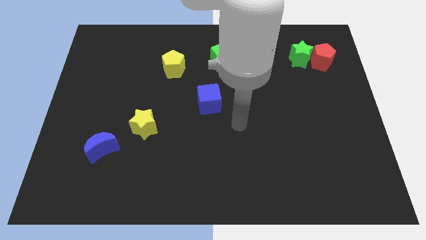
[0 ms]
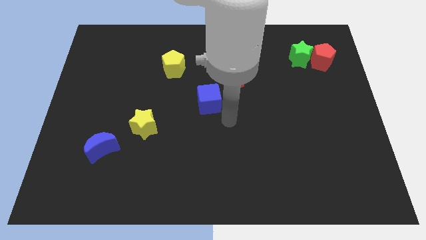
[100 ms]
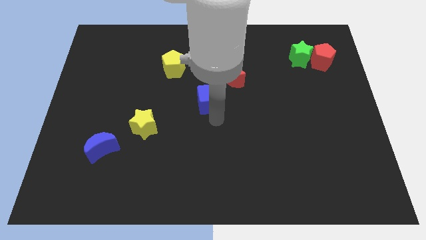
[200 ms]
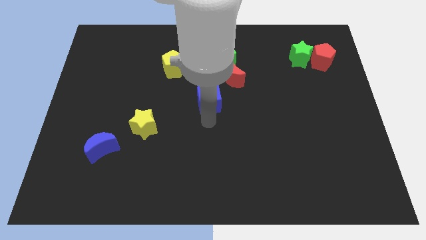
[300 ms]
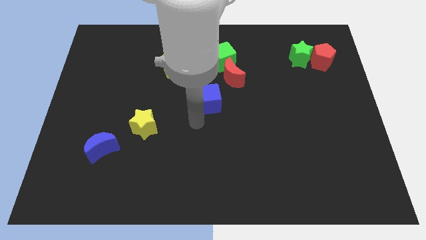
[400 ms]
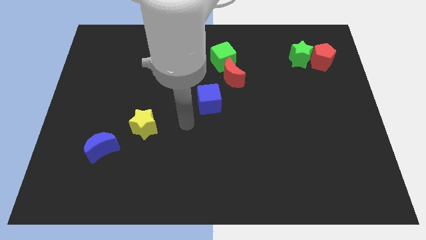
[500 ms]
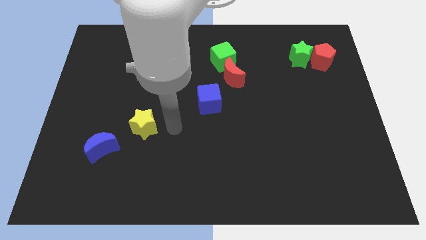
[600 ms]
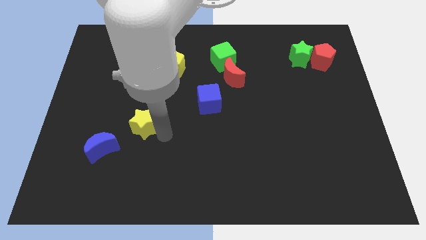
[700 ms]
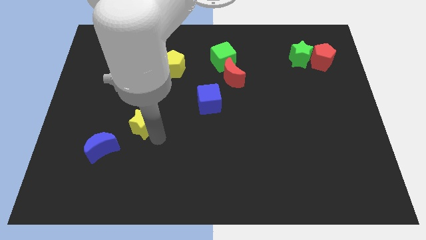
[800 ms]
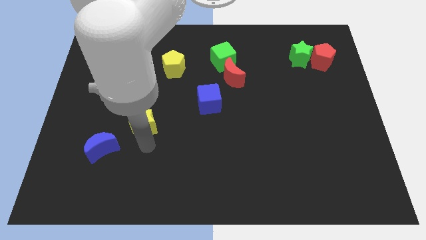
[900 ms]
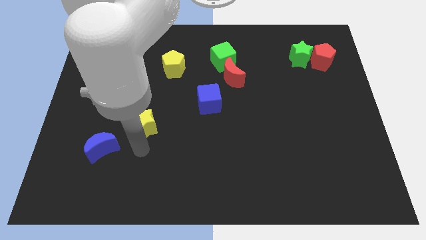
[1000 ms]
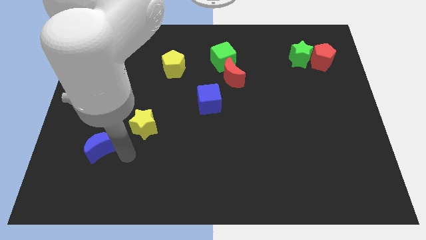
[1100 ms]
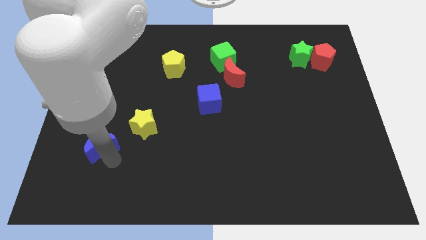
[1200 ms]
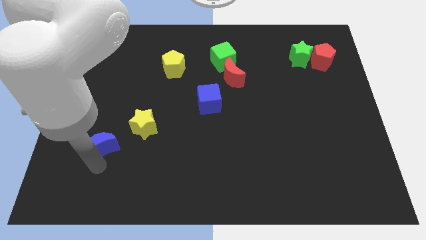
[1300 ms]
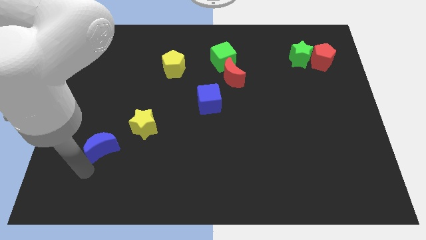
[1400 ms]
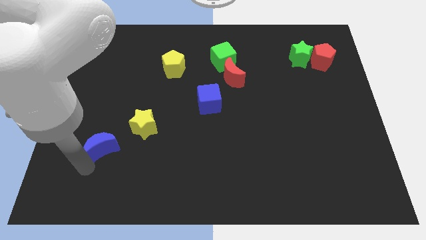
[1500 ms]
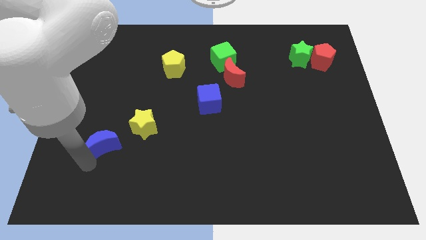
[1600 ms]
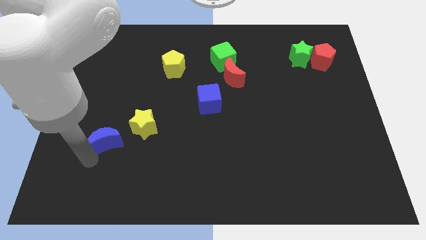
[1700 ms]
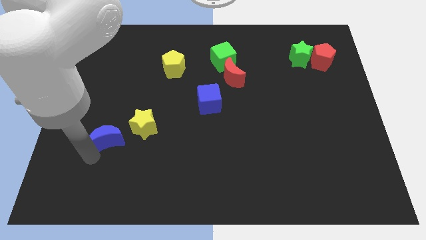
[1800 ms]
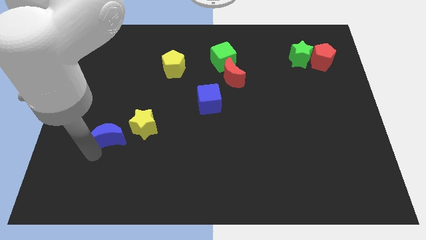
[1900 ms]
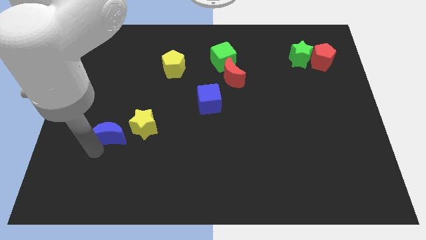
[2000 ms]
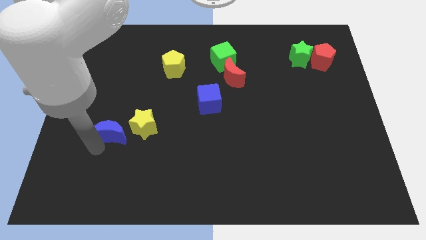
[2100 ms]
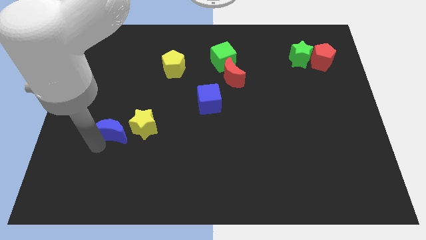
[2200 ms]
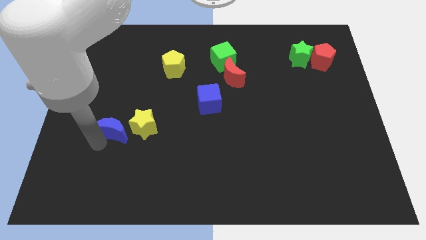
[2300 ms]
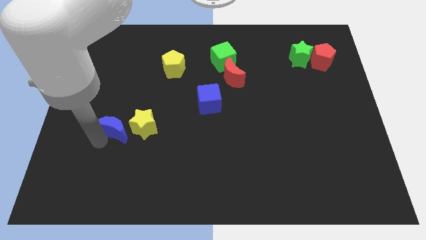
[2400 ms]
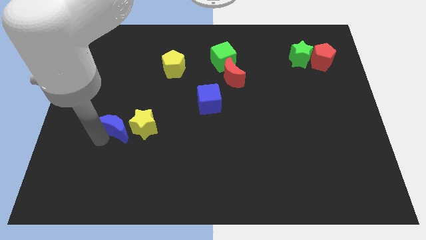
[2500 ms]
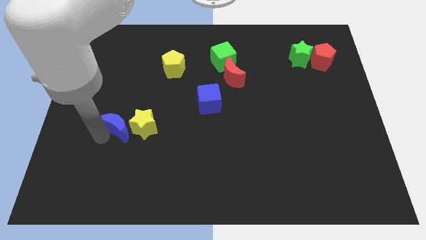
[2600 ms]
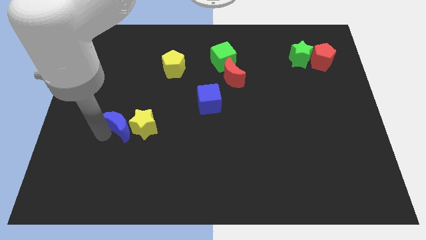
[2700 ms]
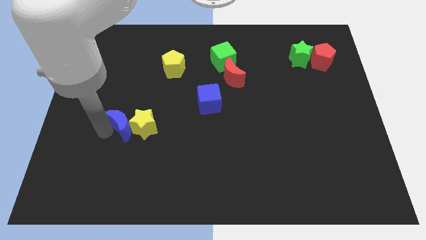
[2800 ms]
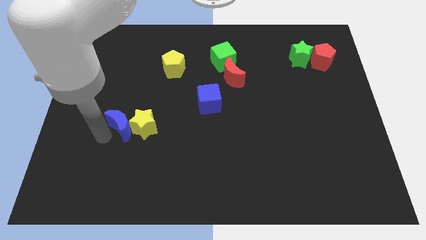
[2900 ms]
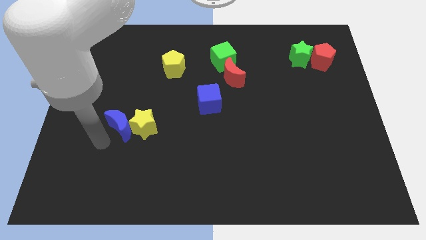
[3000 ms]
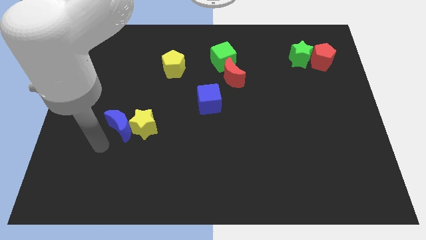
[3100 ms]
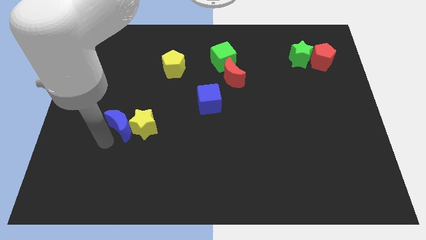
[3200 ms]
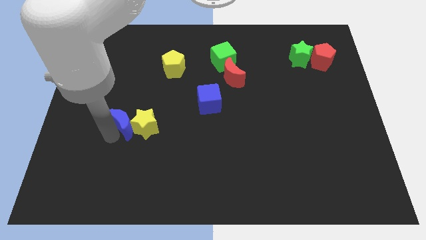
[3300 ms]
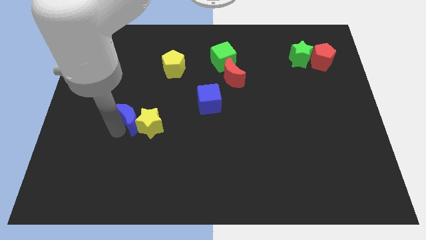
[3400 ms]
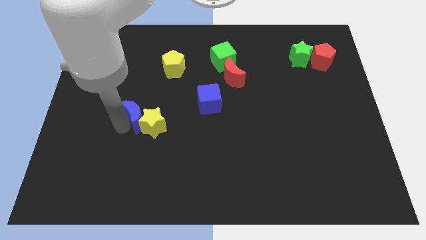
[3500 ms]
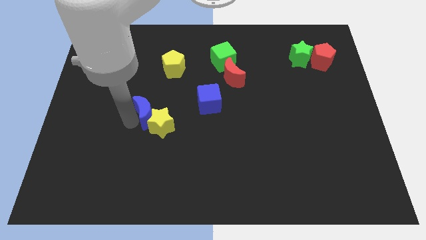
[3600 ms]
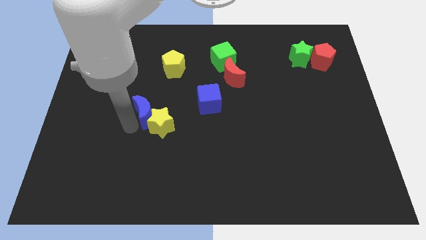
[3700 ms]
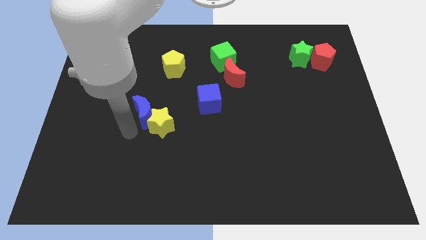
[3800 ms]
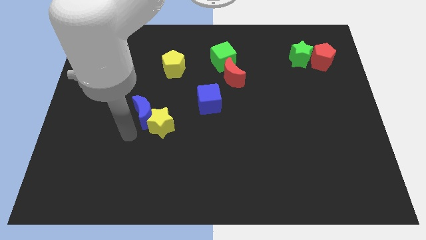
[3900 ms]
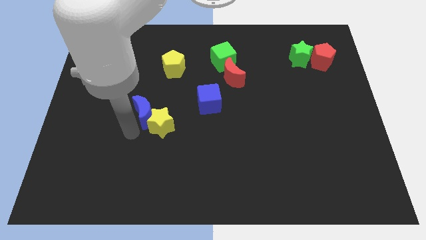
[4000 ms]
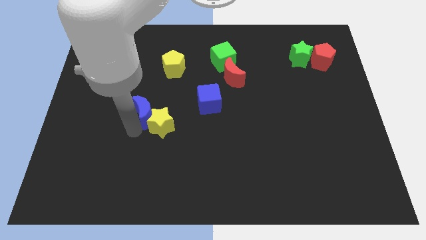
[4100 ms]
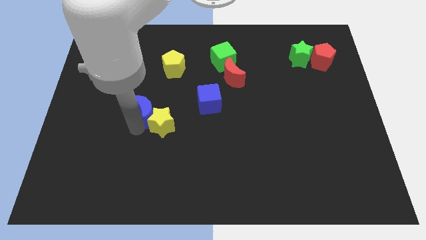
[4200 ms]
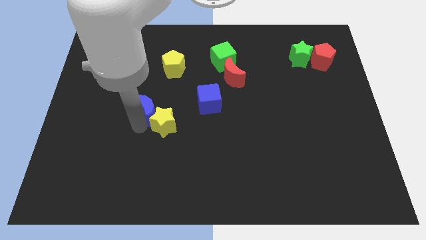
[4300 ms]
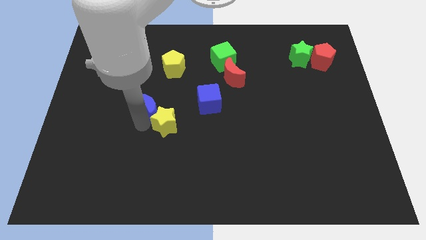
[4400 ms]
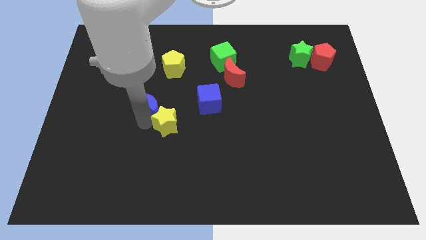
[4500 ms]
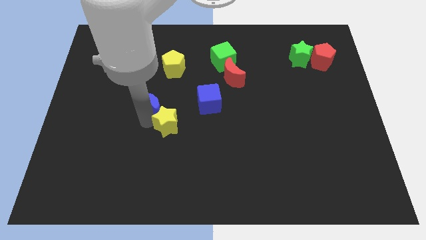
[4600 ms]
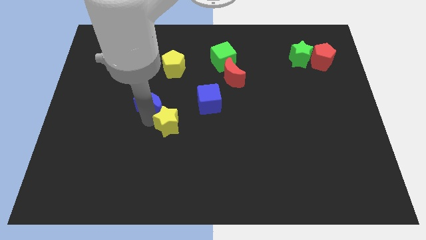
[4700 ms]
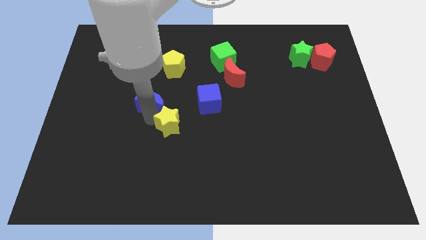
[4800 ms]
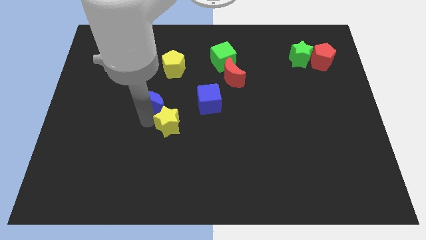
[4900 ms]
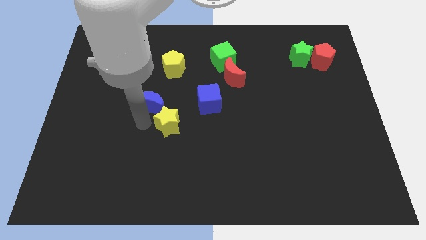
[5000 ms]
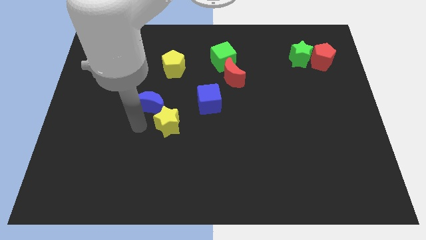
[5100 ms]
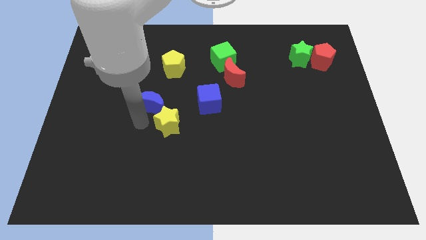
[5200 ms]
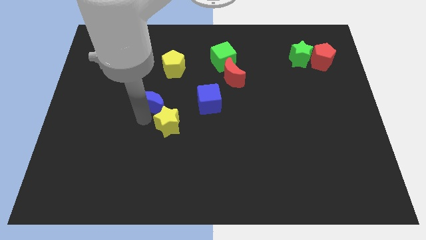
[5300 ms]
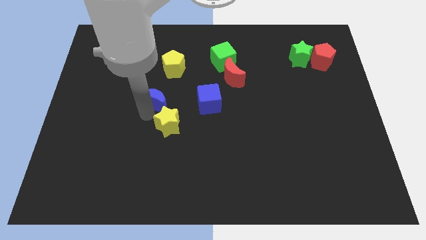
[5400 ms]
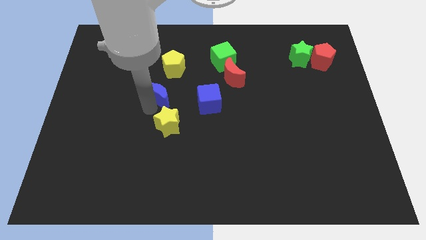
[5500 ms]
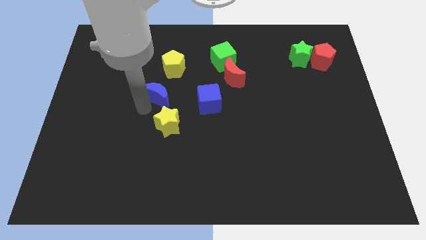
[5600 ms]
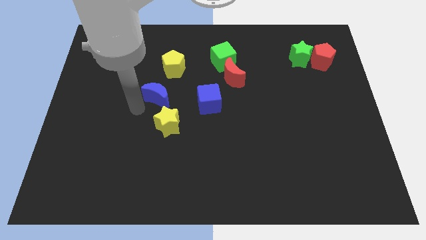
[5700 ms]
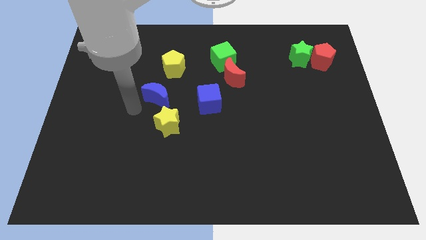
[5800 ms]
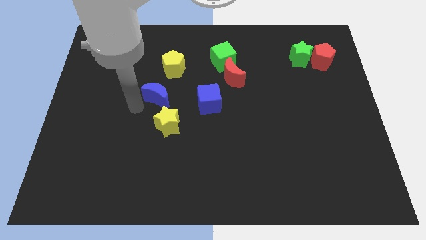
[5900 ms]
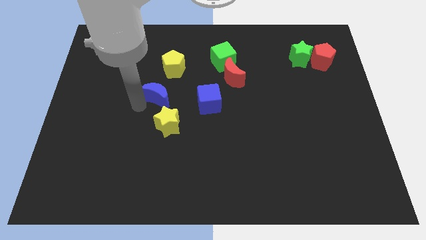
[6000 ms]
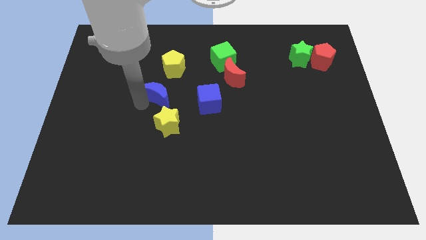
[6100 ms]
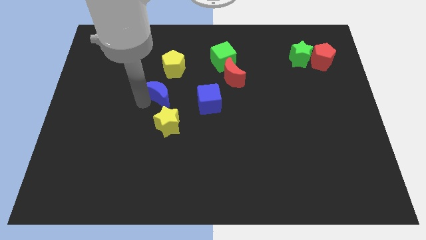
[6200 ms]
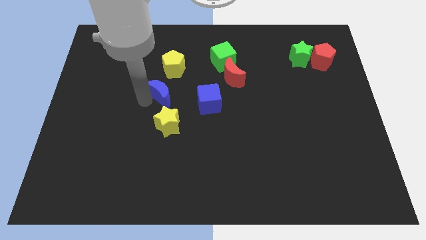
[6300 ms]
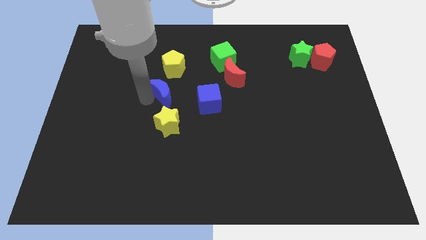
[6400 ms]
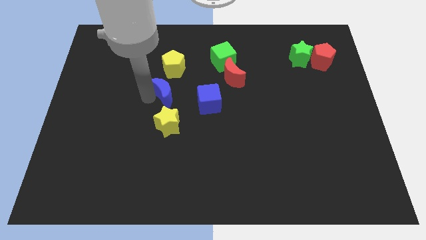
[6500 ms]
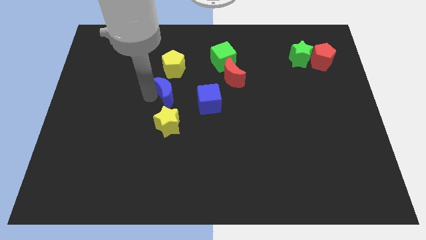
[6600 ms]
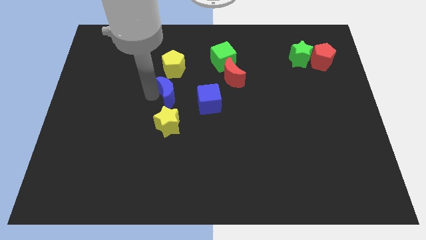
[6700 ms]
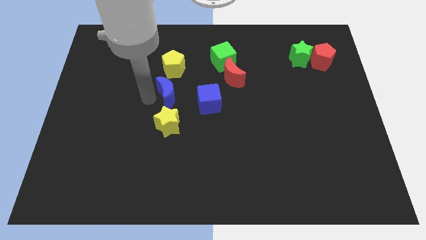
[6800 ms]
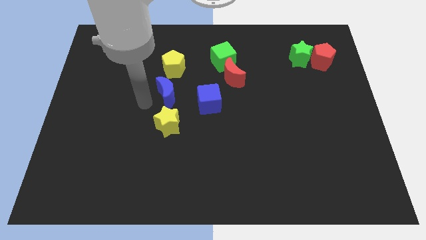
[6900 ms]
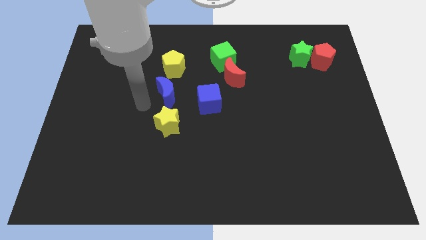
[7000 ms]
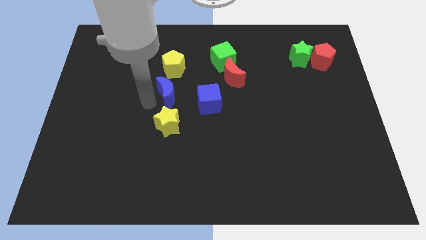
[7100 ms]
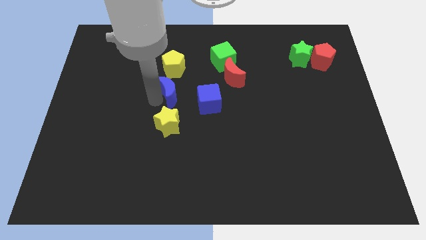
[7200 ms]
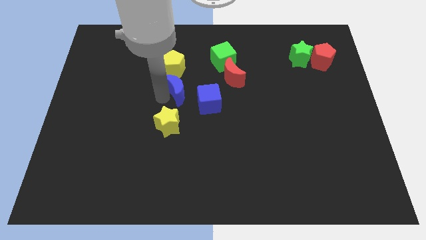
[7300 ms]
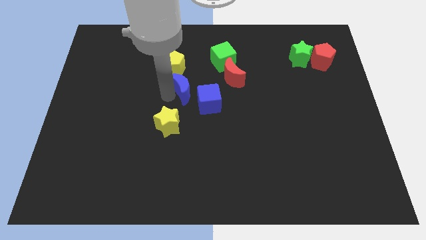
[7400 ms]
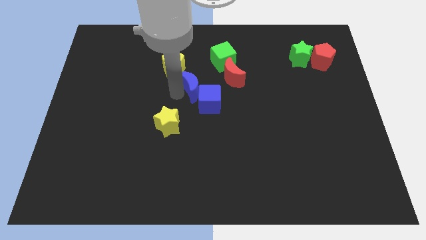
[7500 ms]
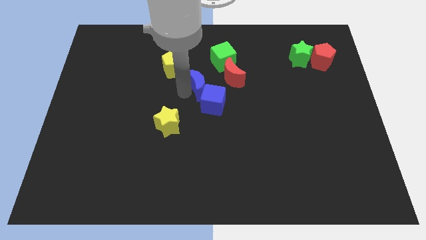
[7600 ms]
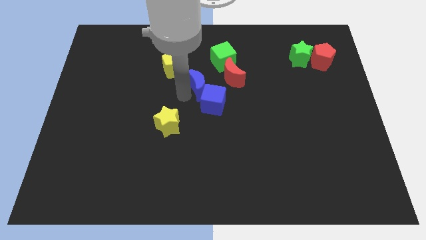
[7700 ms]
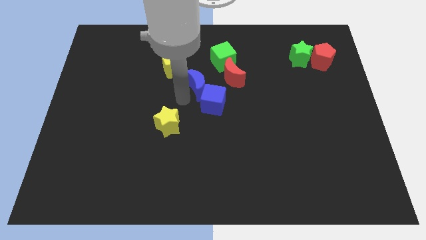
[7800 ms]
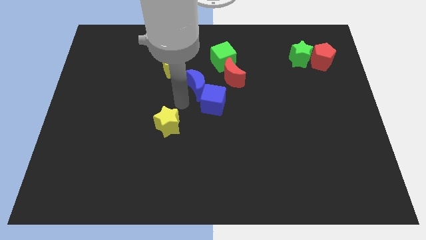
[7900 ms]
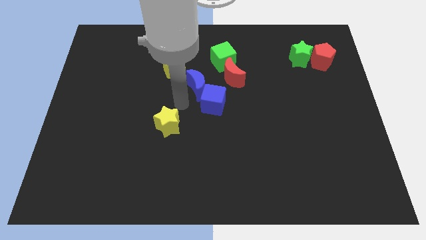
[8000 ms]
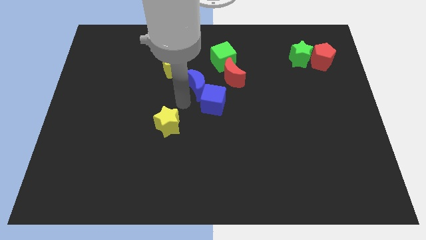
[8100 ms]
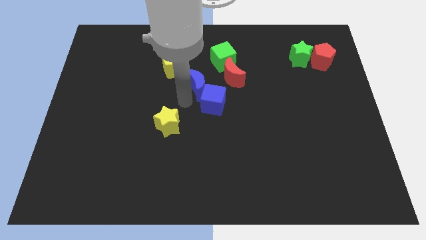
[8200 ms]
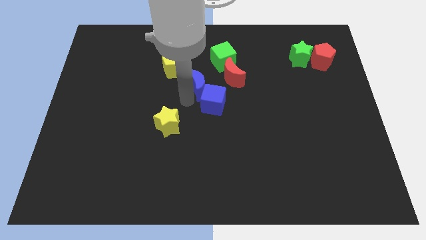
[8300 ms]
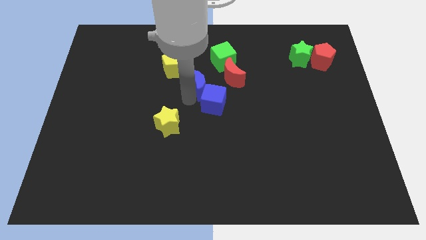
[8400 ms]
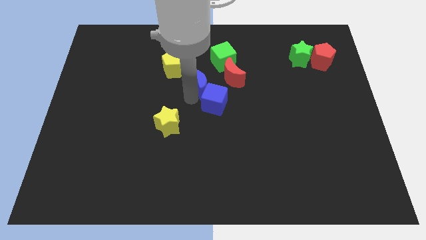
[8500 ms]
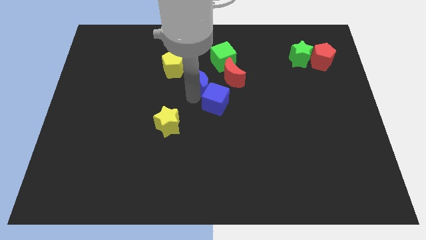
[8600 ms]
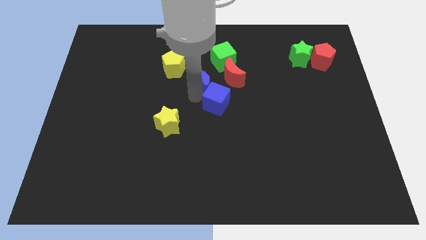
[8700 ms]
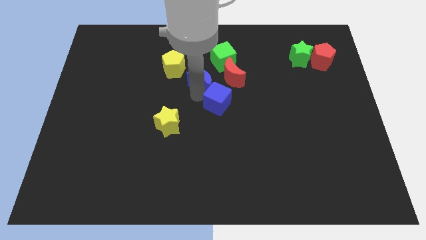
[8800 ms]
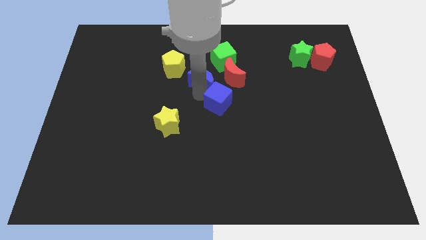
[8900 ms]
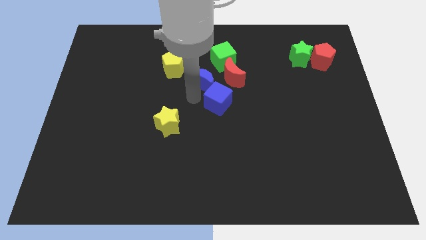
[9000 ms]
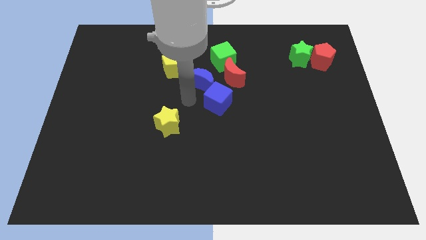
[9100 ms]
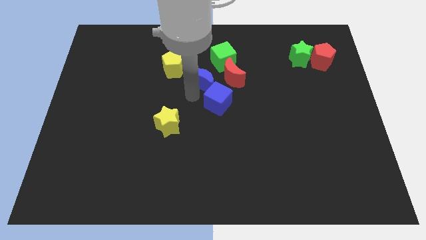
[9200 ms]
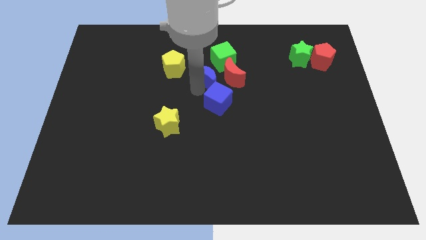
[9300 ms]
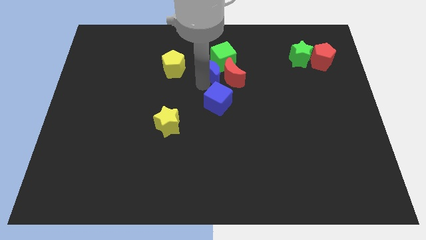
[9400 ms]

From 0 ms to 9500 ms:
slide the blue moon close to the green cube
